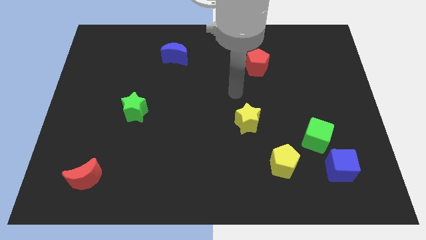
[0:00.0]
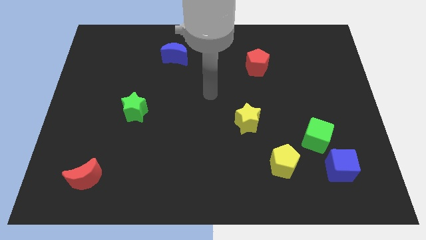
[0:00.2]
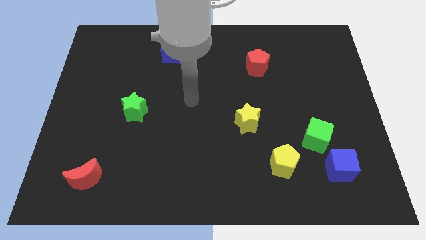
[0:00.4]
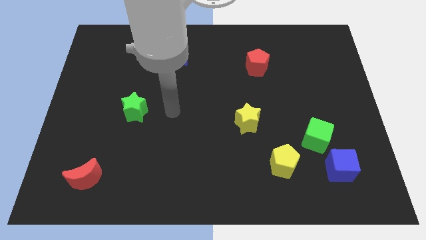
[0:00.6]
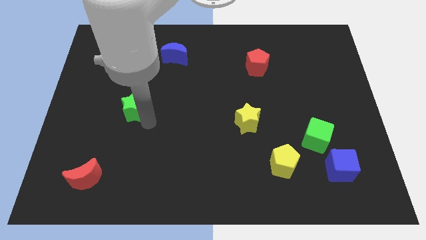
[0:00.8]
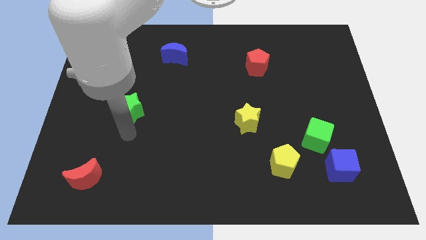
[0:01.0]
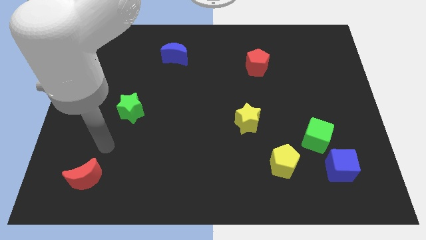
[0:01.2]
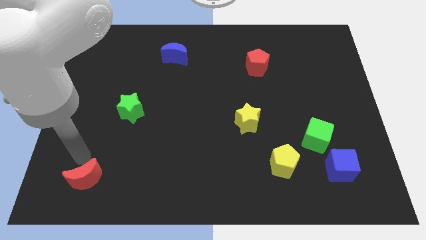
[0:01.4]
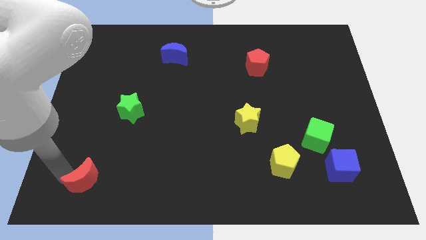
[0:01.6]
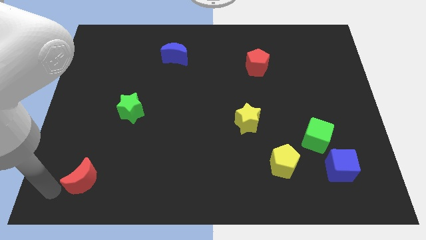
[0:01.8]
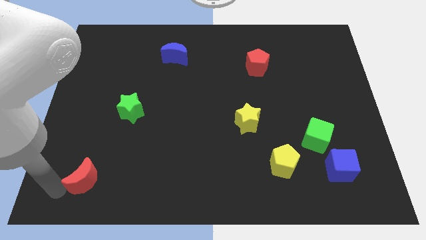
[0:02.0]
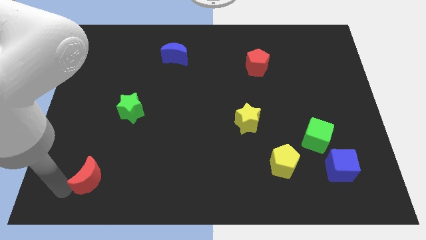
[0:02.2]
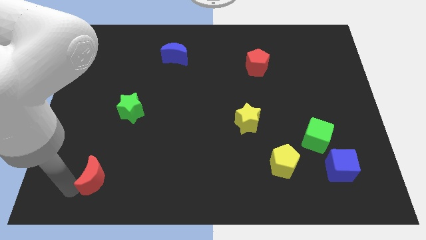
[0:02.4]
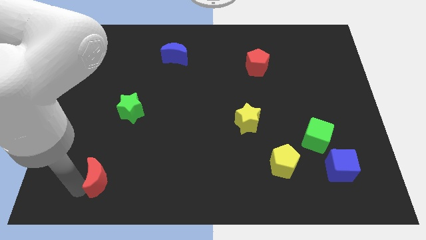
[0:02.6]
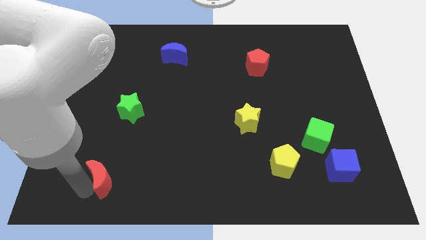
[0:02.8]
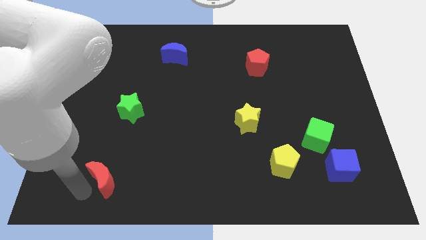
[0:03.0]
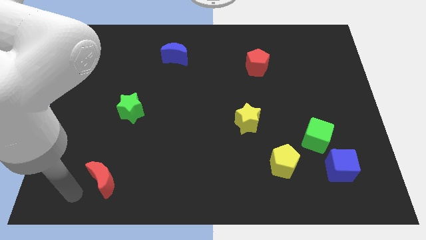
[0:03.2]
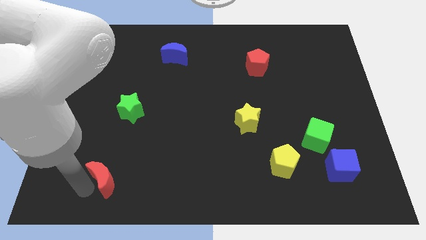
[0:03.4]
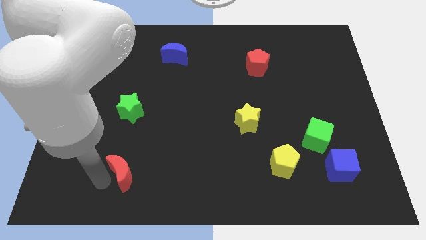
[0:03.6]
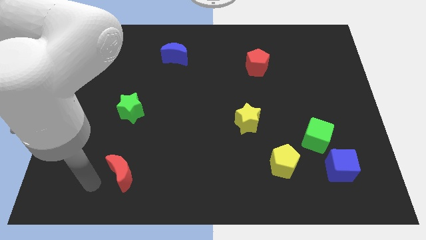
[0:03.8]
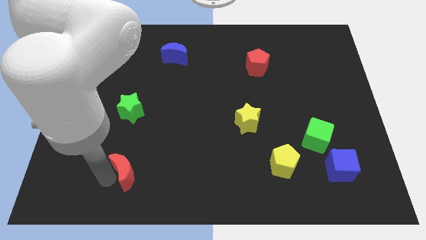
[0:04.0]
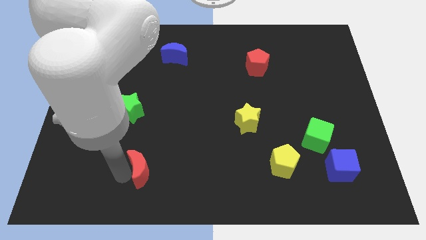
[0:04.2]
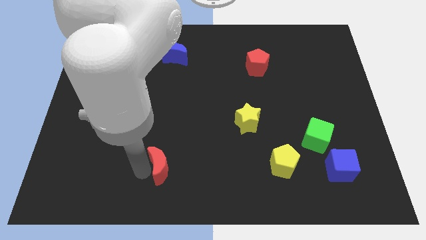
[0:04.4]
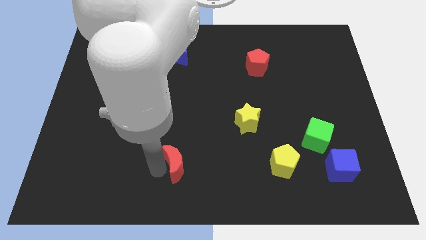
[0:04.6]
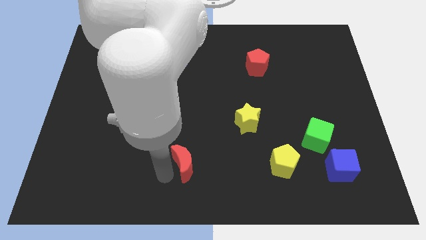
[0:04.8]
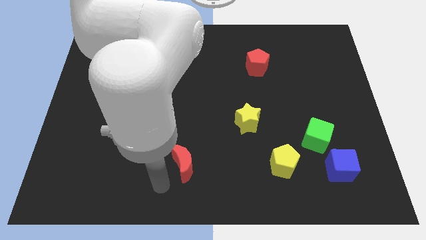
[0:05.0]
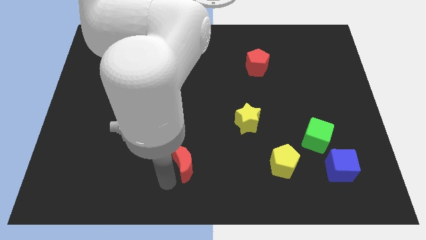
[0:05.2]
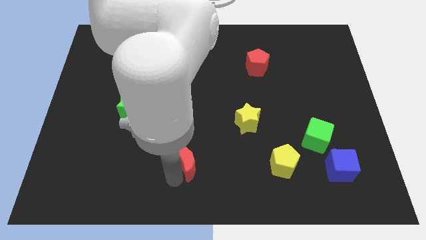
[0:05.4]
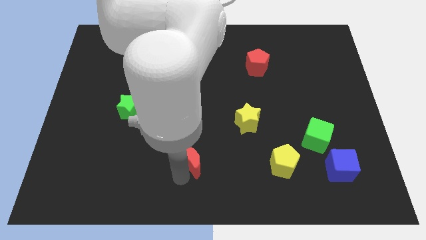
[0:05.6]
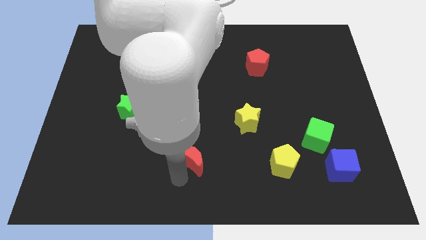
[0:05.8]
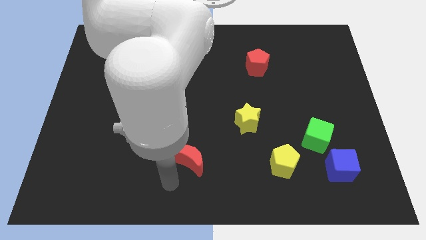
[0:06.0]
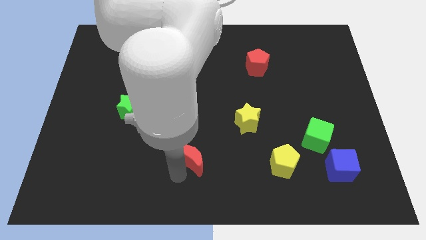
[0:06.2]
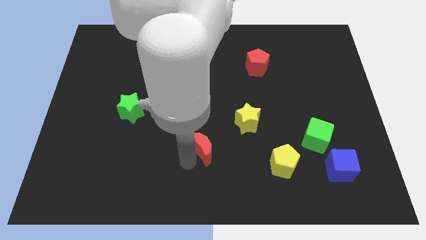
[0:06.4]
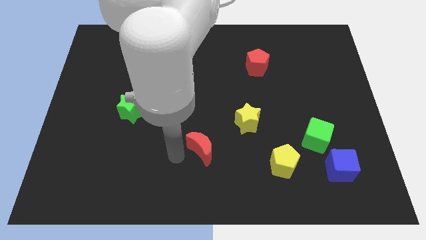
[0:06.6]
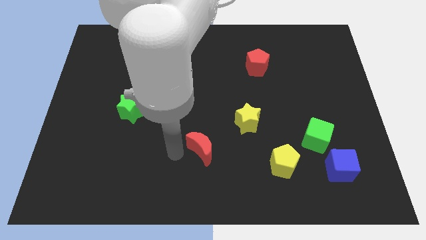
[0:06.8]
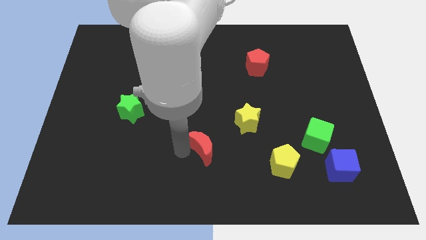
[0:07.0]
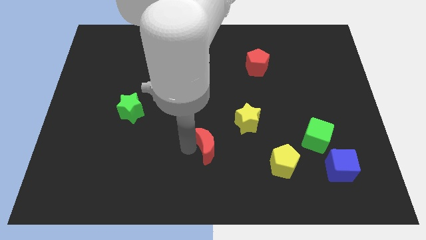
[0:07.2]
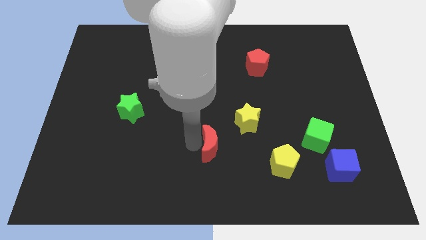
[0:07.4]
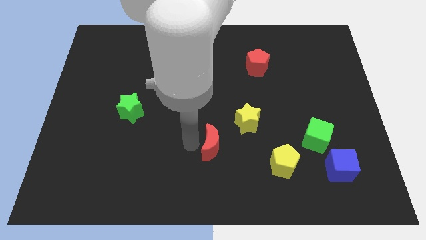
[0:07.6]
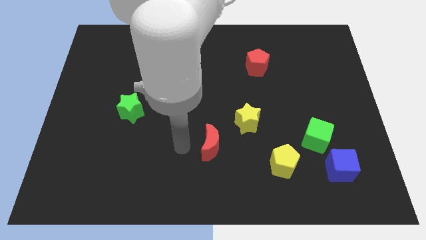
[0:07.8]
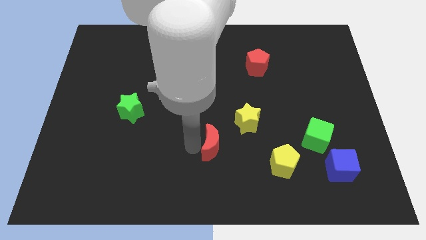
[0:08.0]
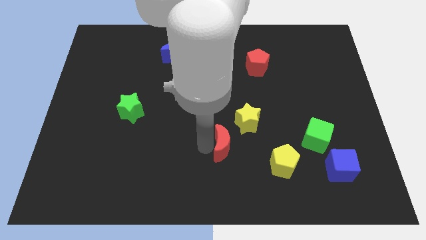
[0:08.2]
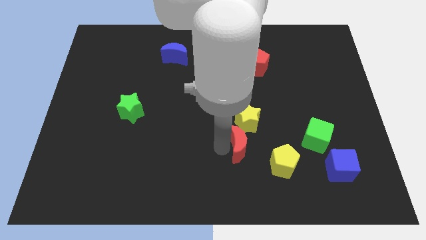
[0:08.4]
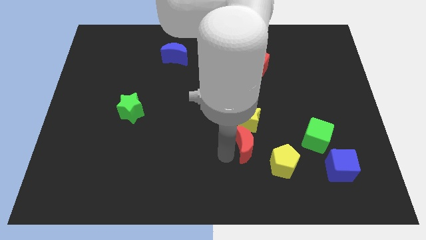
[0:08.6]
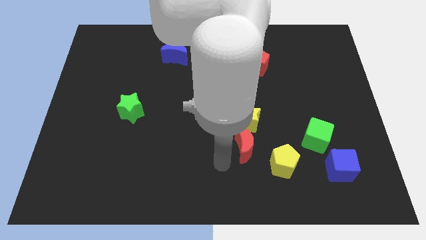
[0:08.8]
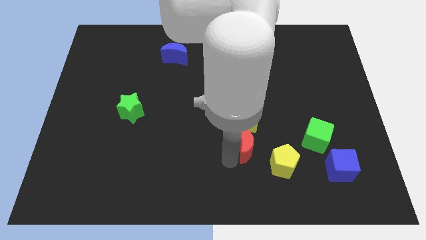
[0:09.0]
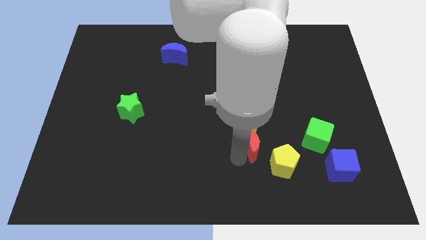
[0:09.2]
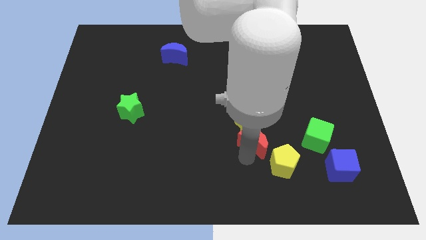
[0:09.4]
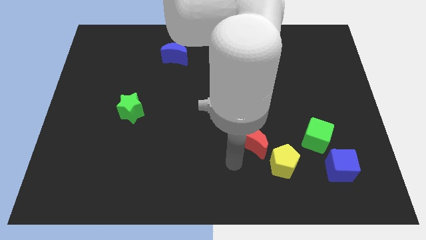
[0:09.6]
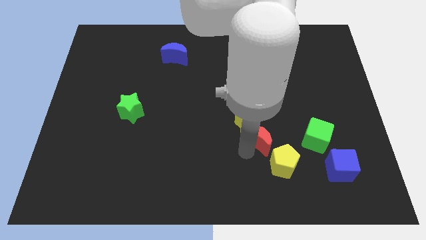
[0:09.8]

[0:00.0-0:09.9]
push the red moon to the top side of the yellow pentagon

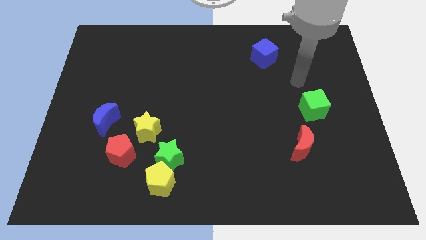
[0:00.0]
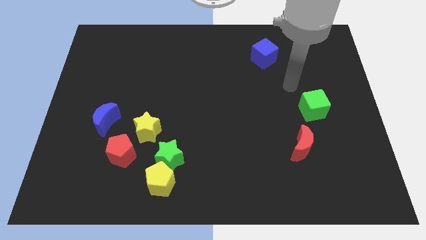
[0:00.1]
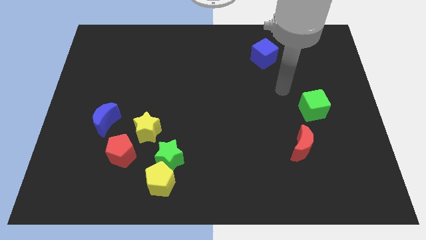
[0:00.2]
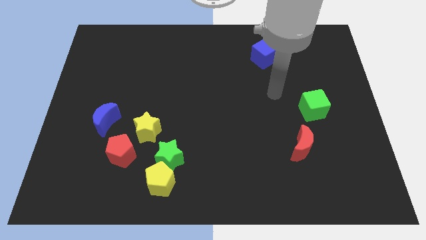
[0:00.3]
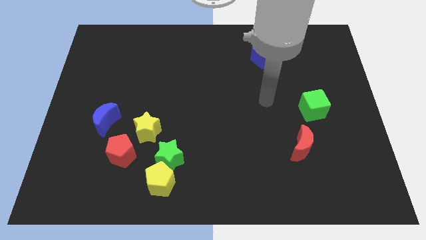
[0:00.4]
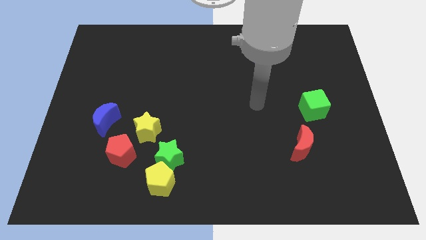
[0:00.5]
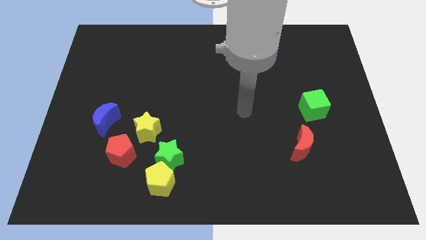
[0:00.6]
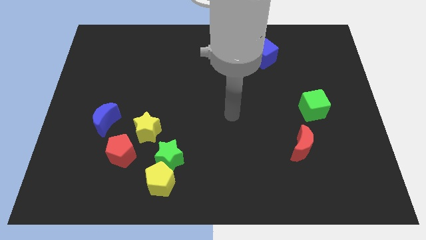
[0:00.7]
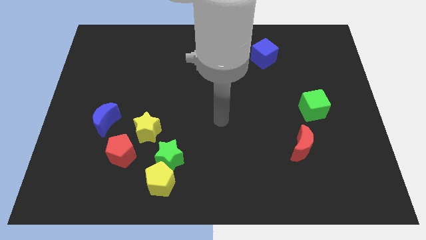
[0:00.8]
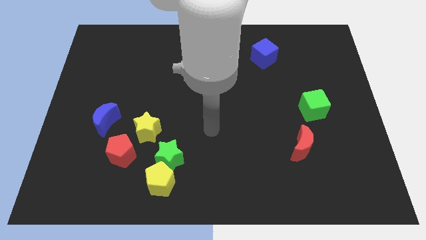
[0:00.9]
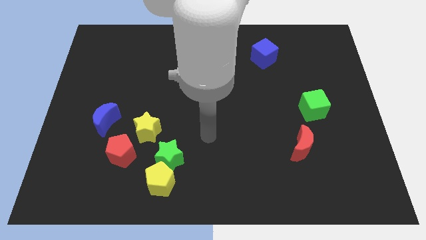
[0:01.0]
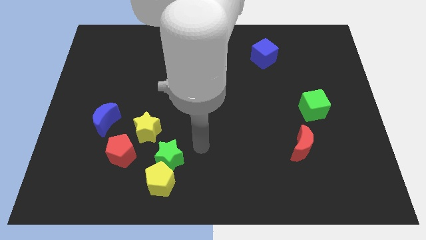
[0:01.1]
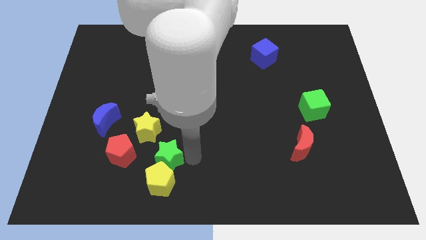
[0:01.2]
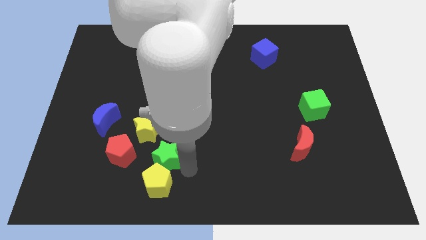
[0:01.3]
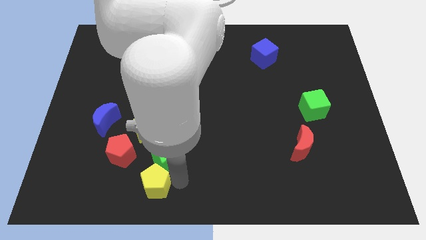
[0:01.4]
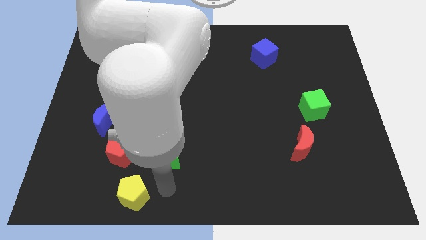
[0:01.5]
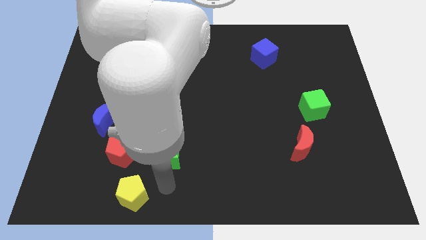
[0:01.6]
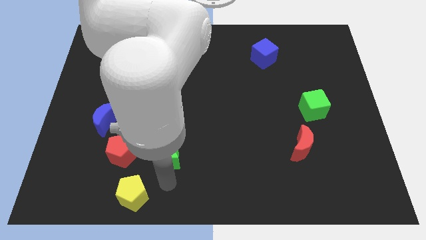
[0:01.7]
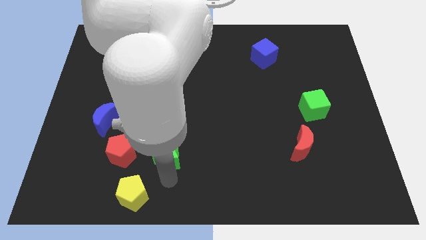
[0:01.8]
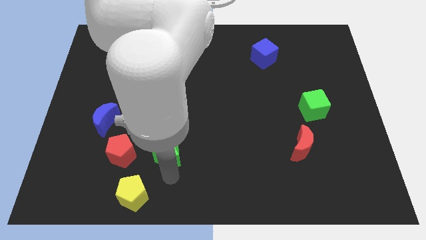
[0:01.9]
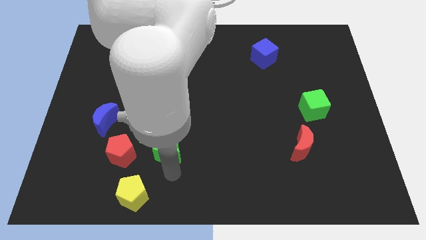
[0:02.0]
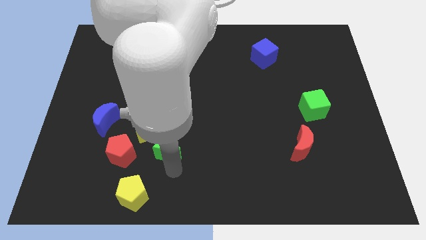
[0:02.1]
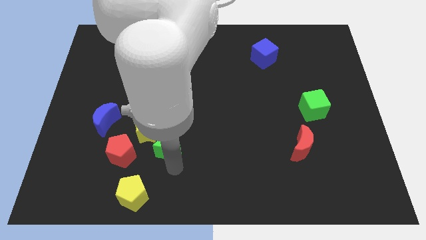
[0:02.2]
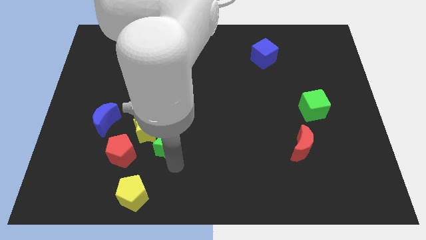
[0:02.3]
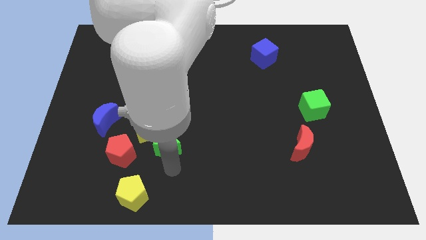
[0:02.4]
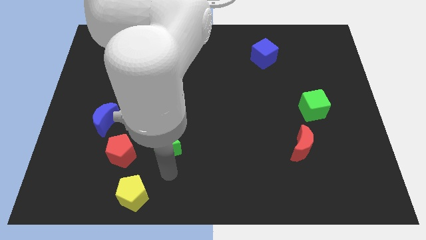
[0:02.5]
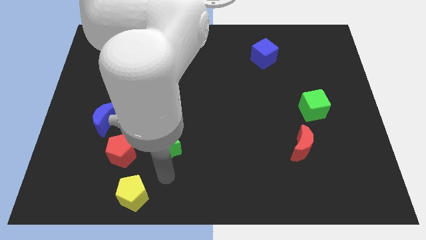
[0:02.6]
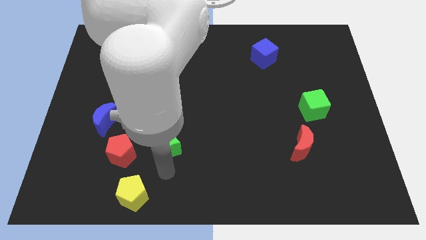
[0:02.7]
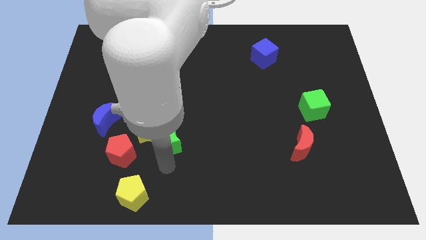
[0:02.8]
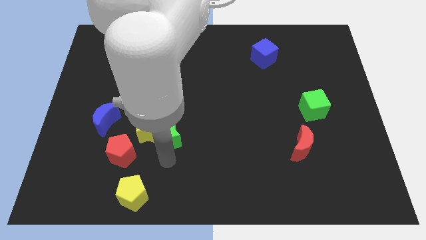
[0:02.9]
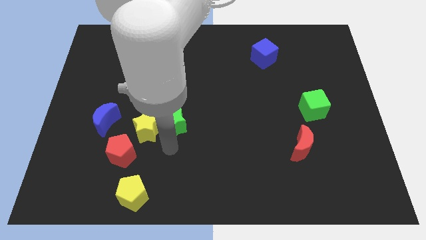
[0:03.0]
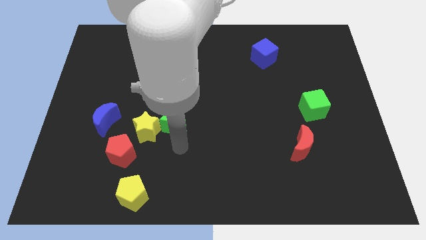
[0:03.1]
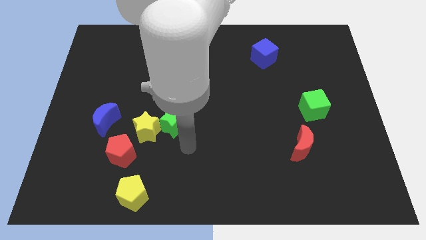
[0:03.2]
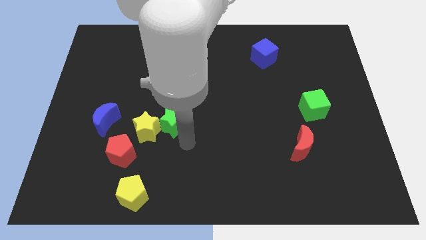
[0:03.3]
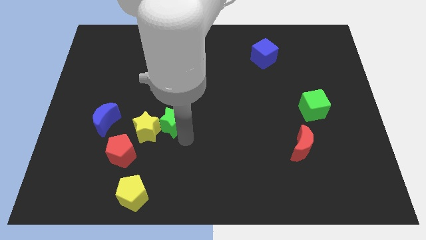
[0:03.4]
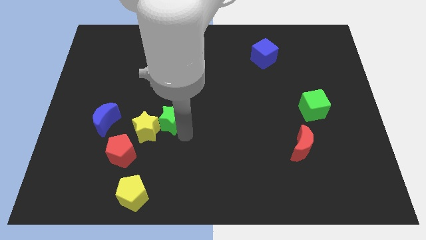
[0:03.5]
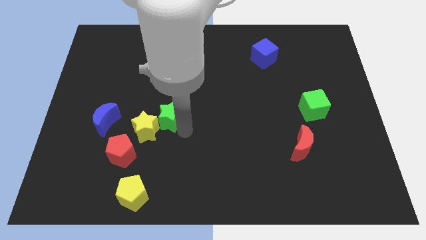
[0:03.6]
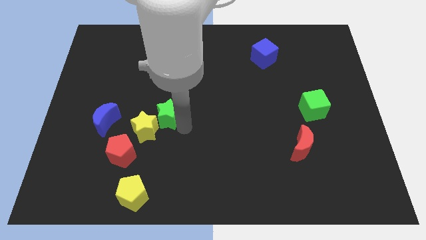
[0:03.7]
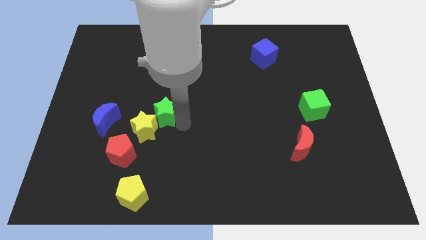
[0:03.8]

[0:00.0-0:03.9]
slide the green star to the top side of the yellow star
